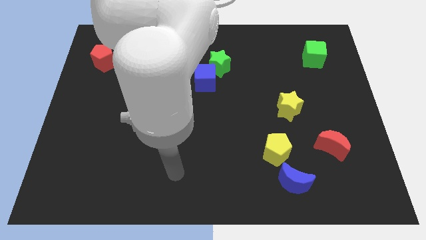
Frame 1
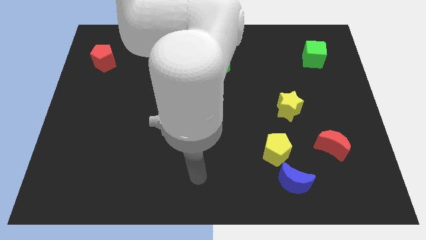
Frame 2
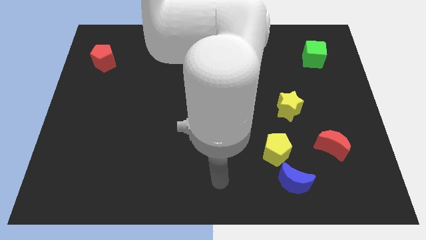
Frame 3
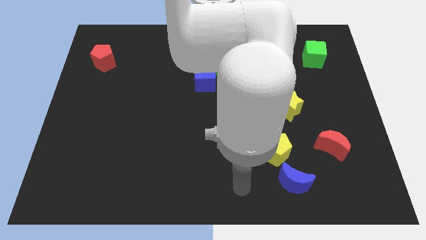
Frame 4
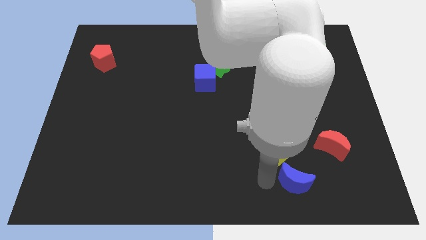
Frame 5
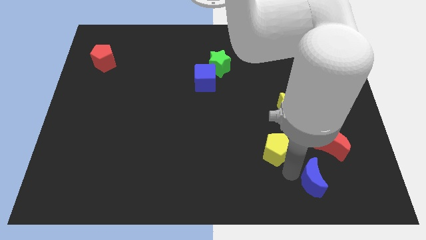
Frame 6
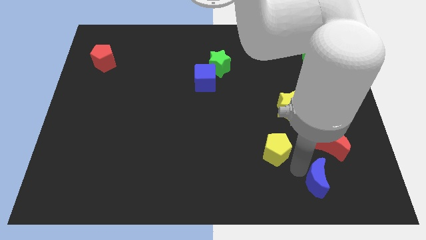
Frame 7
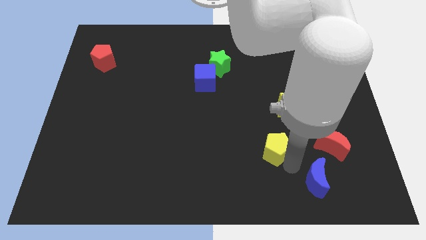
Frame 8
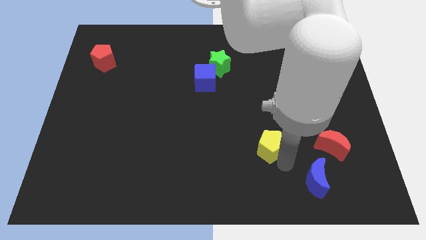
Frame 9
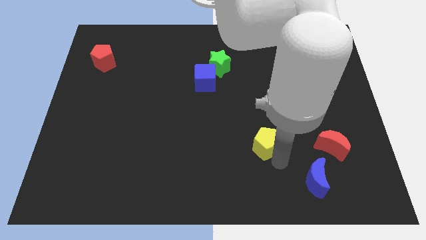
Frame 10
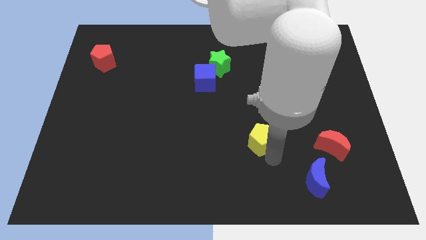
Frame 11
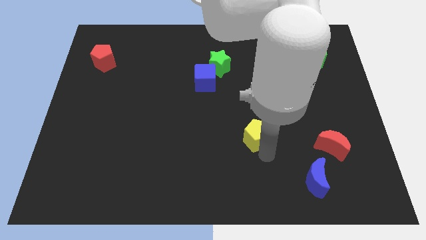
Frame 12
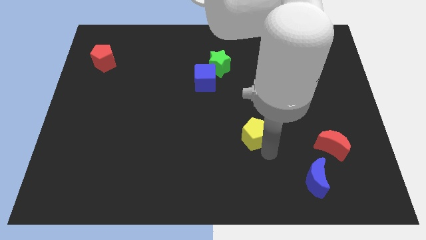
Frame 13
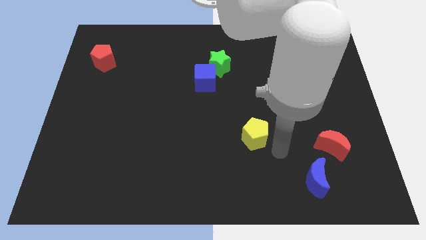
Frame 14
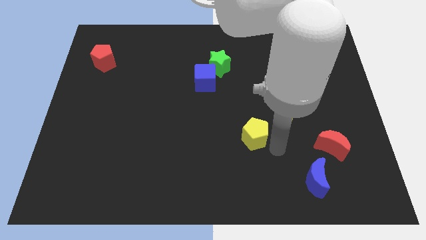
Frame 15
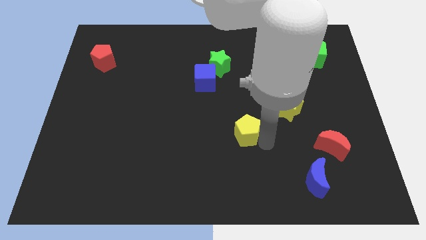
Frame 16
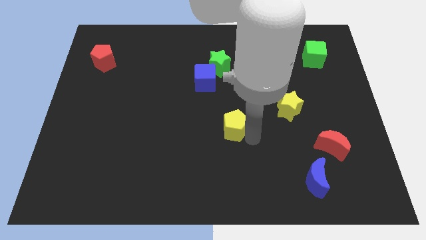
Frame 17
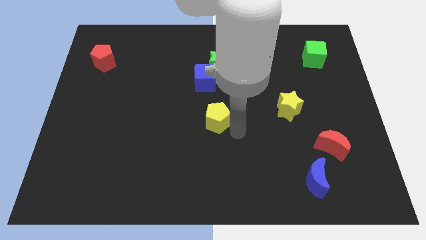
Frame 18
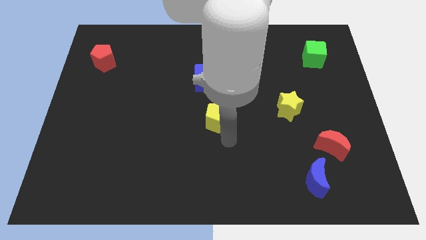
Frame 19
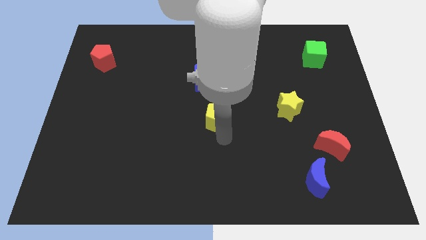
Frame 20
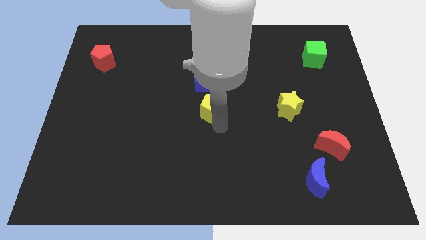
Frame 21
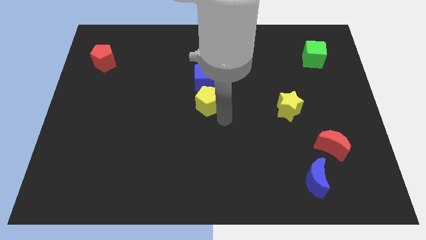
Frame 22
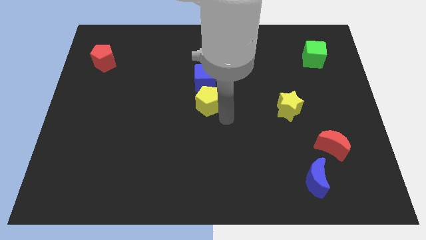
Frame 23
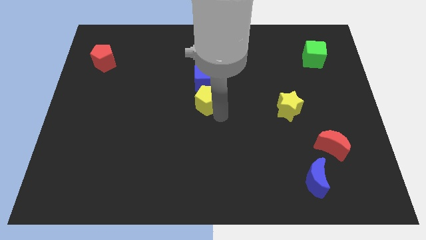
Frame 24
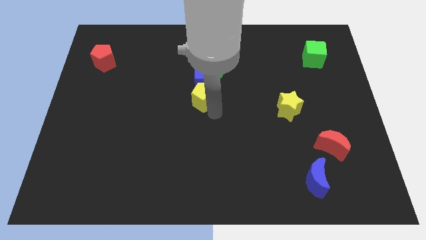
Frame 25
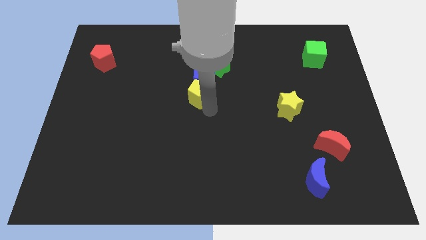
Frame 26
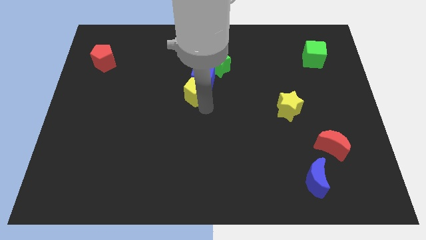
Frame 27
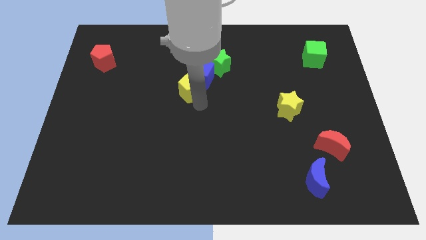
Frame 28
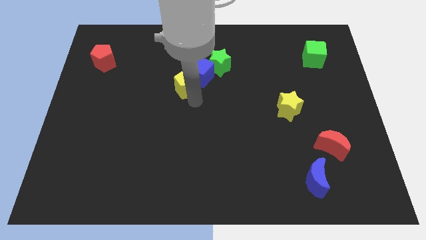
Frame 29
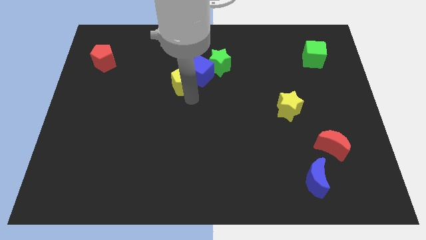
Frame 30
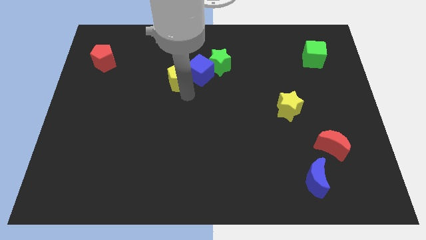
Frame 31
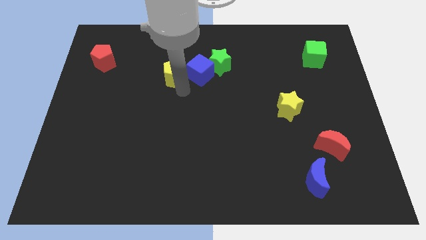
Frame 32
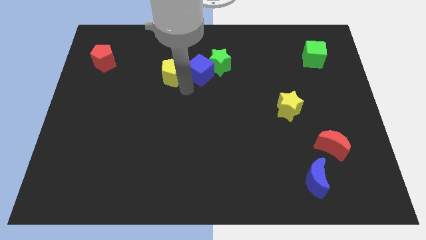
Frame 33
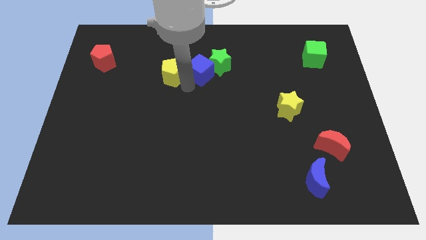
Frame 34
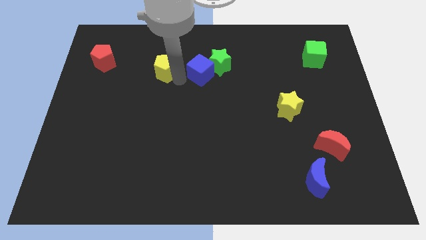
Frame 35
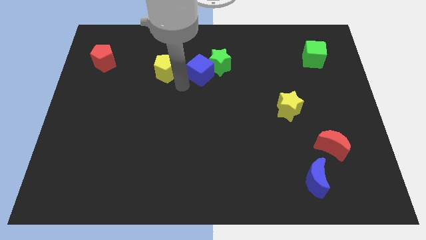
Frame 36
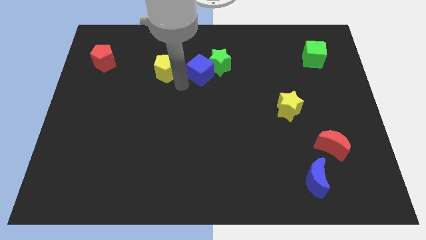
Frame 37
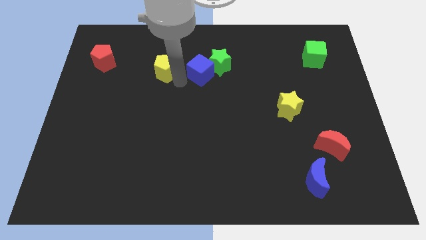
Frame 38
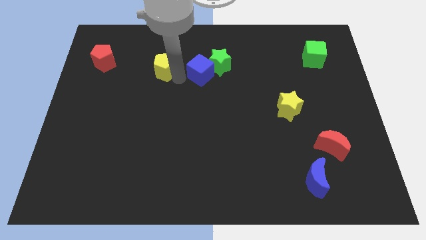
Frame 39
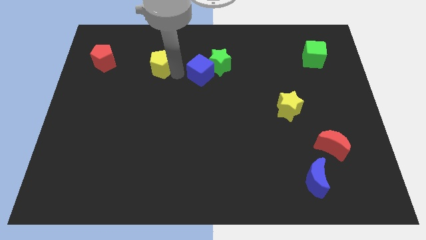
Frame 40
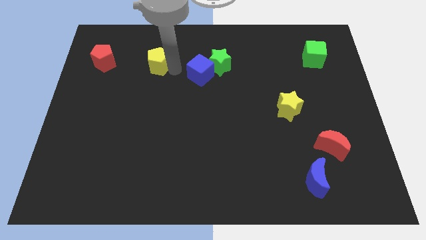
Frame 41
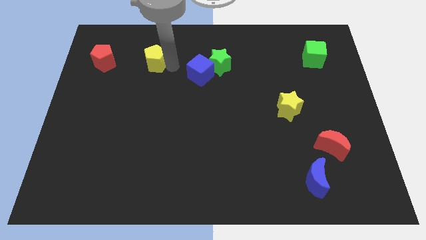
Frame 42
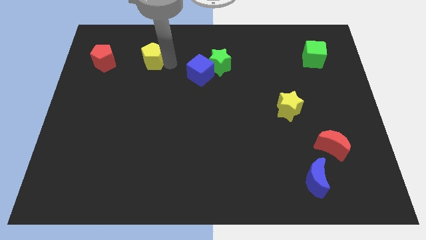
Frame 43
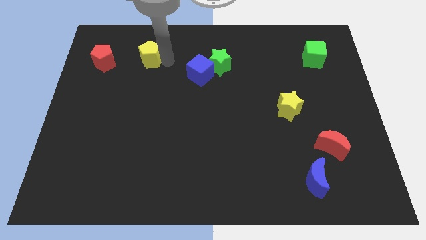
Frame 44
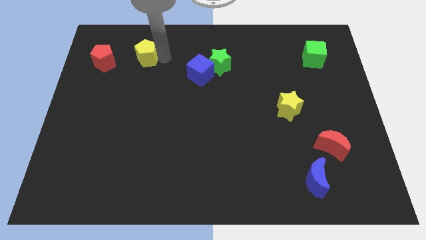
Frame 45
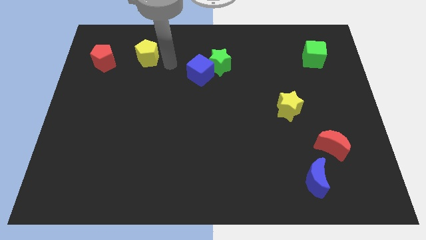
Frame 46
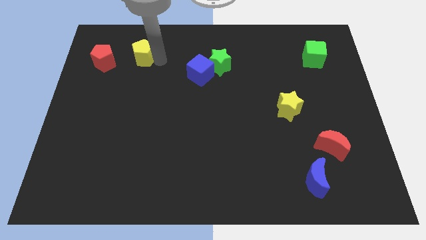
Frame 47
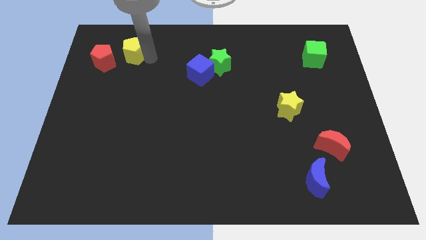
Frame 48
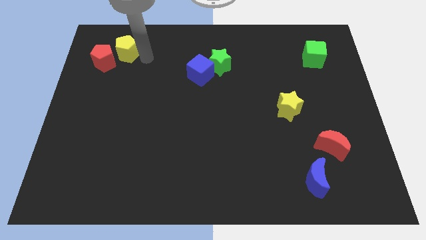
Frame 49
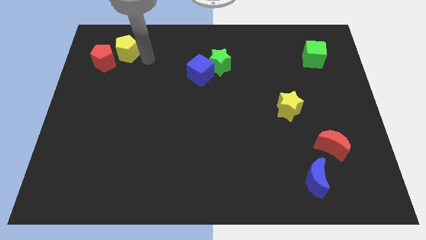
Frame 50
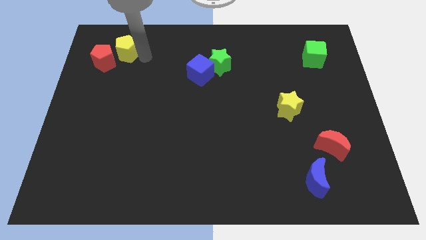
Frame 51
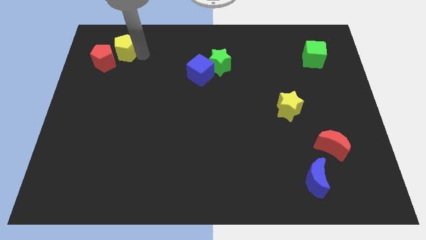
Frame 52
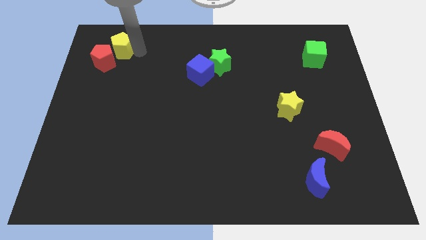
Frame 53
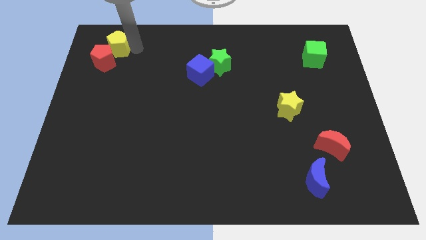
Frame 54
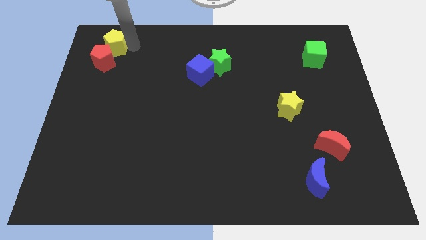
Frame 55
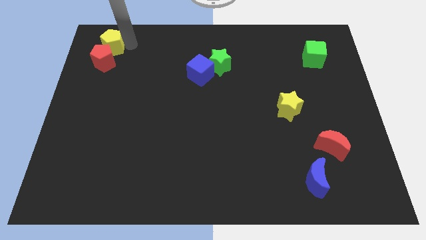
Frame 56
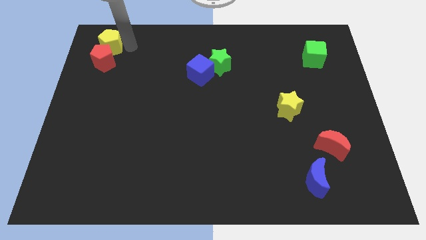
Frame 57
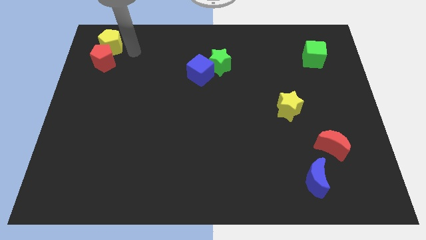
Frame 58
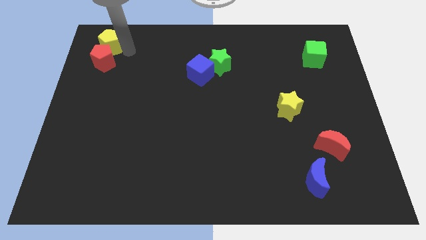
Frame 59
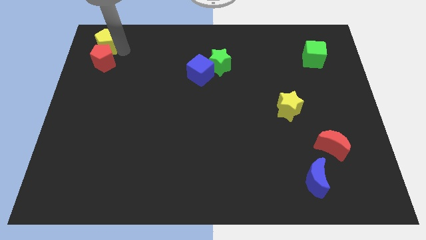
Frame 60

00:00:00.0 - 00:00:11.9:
slide the yellow pentagon to the top left
